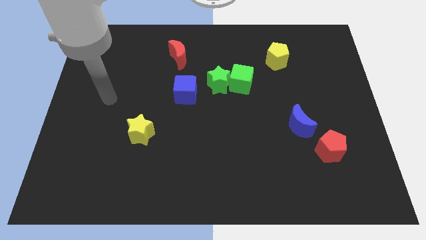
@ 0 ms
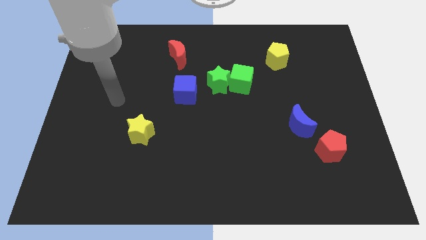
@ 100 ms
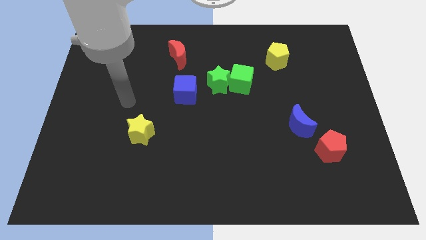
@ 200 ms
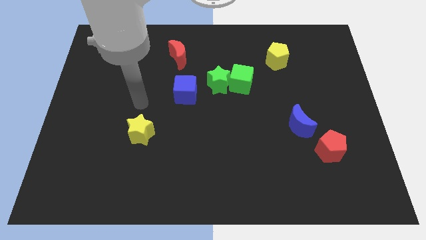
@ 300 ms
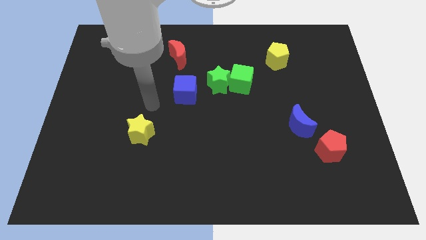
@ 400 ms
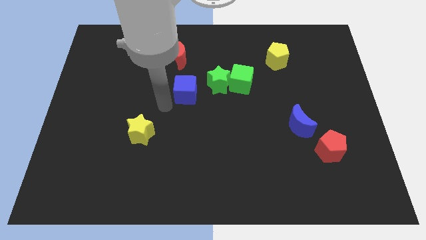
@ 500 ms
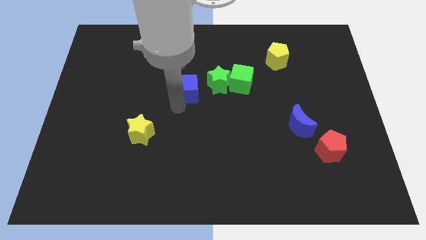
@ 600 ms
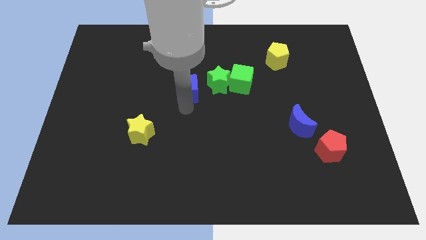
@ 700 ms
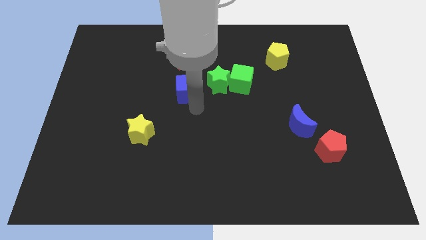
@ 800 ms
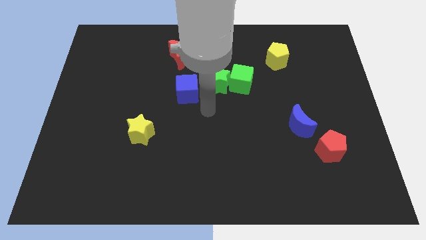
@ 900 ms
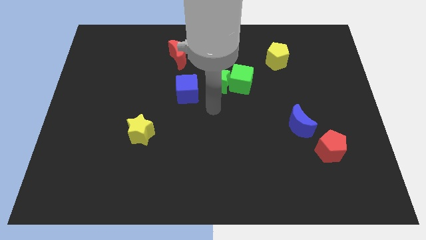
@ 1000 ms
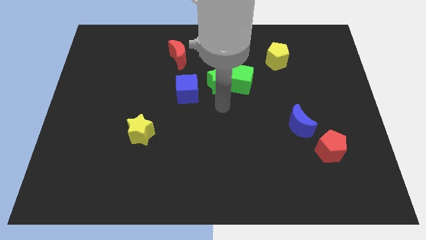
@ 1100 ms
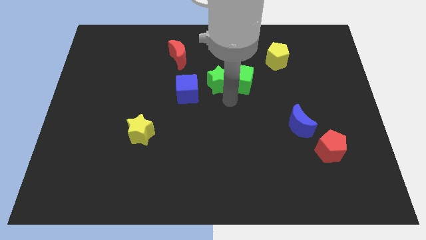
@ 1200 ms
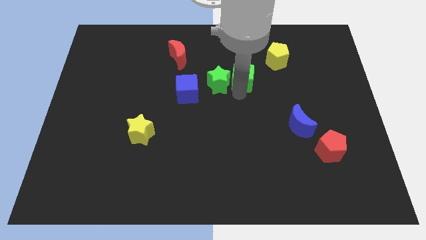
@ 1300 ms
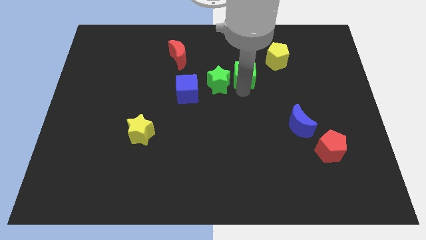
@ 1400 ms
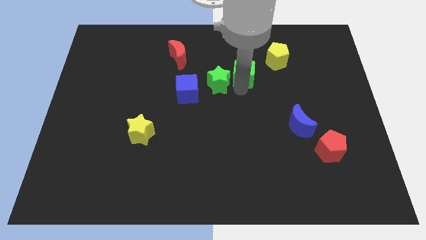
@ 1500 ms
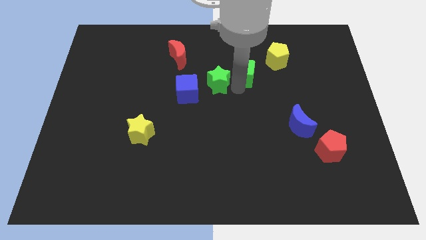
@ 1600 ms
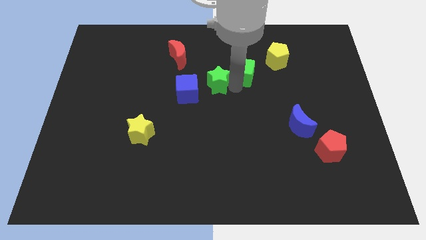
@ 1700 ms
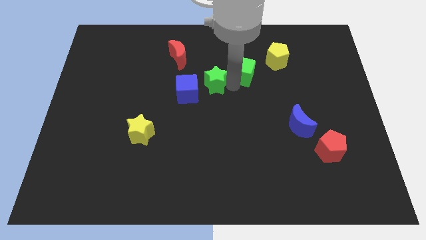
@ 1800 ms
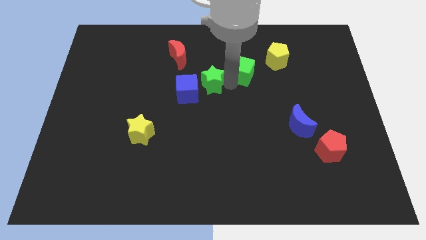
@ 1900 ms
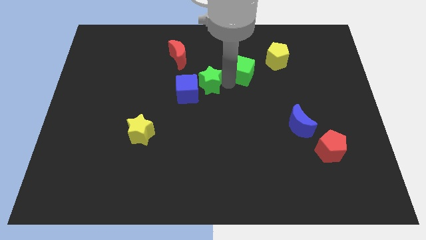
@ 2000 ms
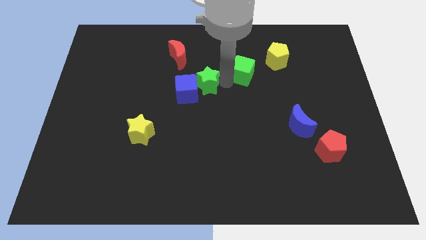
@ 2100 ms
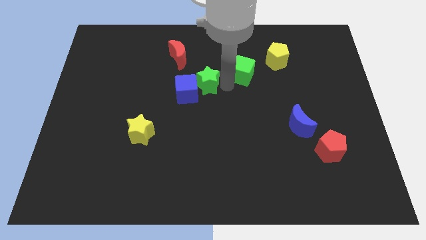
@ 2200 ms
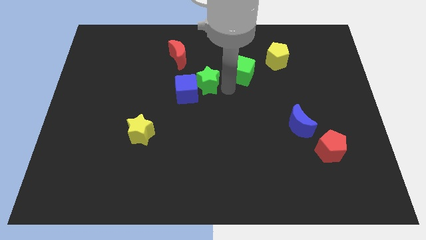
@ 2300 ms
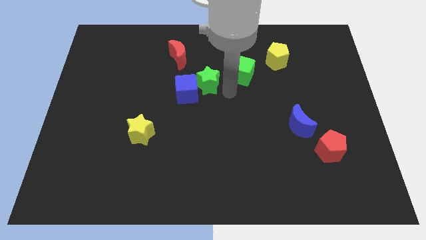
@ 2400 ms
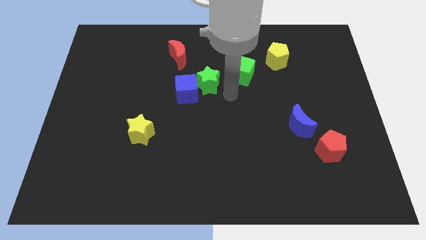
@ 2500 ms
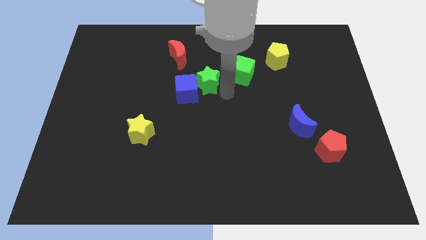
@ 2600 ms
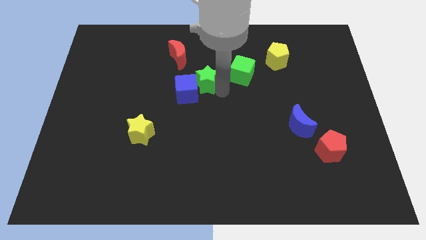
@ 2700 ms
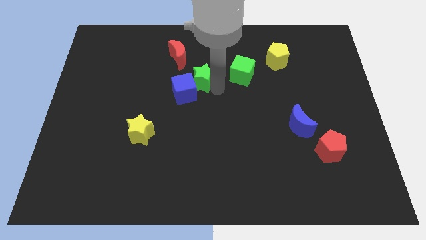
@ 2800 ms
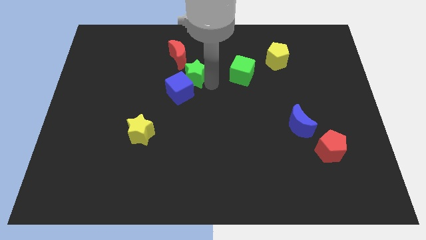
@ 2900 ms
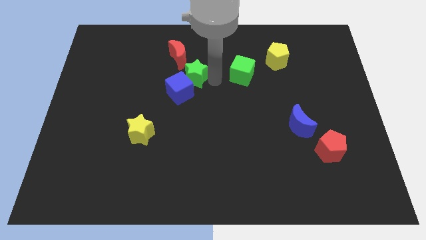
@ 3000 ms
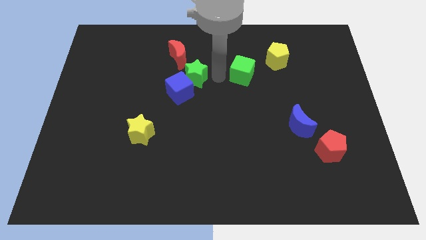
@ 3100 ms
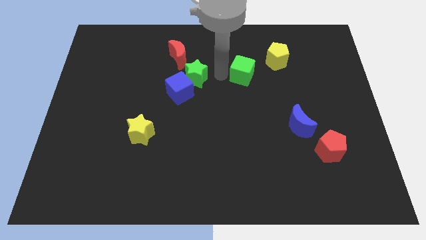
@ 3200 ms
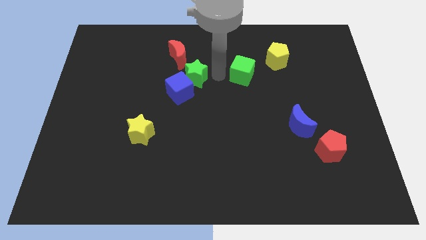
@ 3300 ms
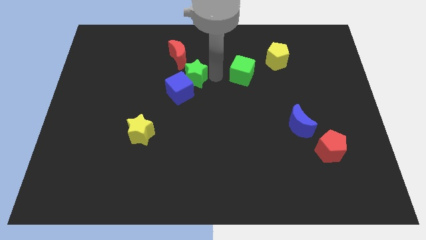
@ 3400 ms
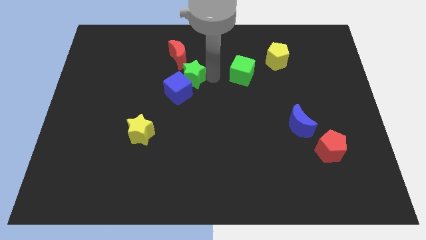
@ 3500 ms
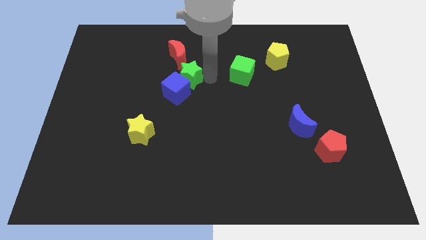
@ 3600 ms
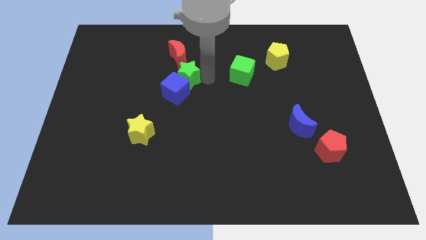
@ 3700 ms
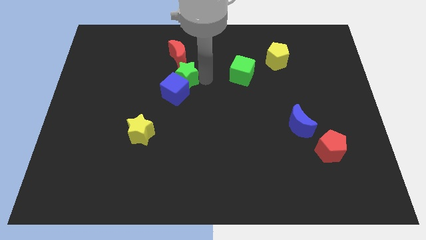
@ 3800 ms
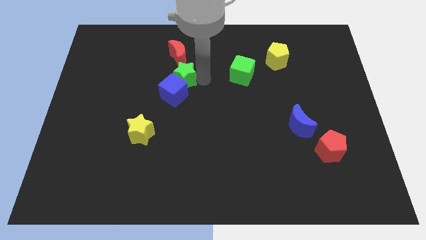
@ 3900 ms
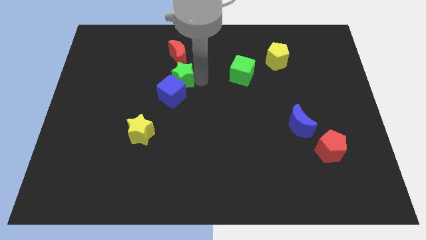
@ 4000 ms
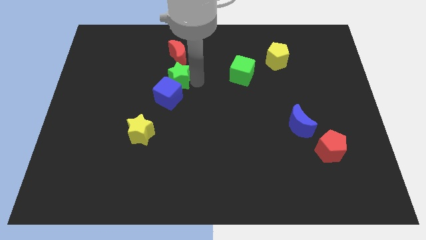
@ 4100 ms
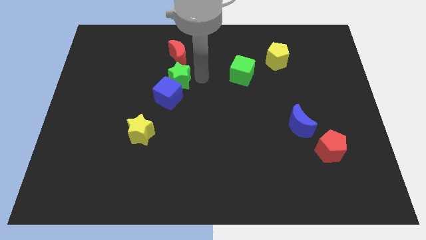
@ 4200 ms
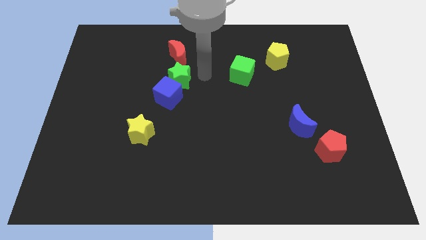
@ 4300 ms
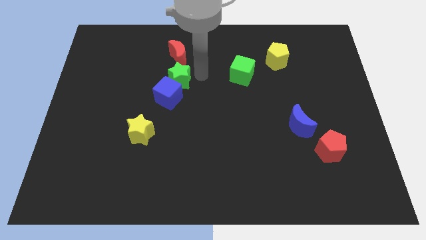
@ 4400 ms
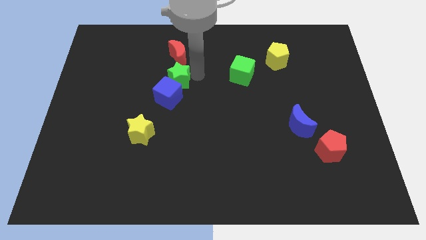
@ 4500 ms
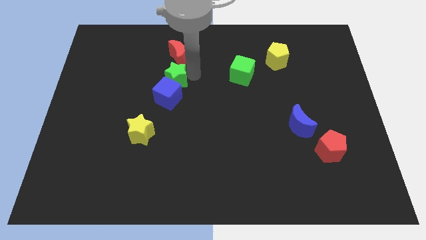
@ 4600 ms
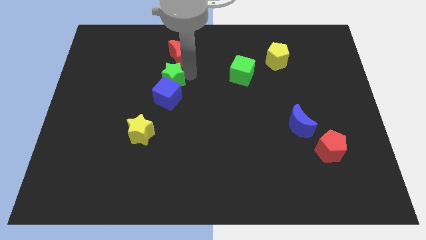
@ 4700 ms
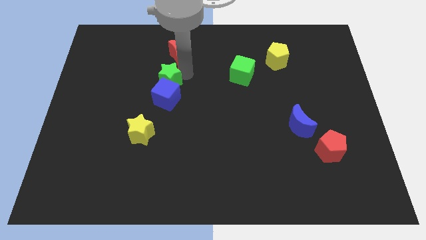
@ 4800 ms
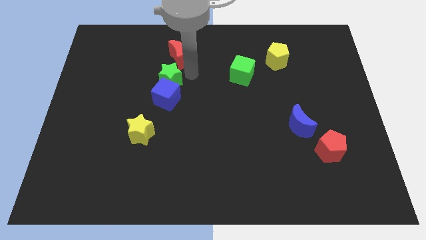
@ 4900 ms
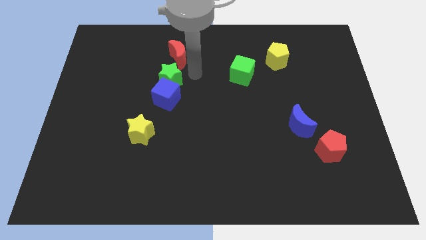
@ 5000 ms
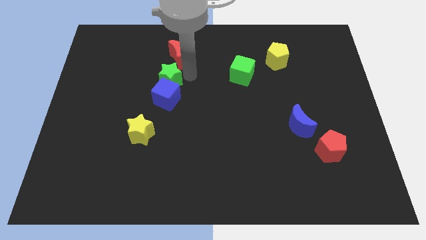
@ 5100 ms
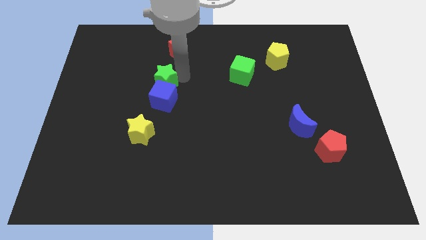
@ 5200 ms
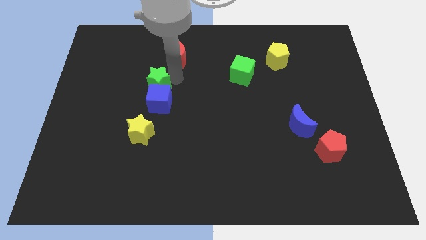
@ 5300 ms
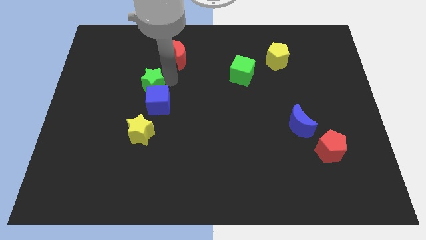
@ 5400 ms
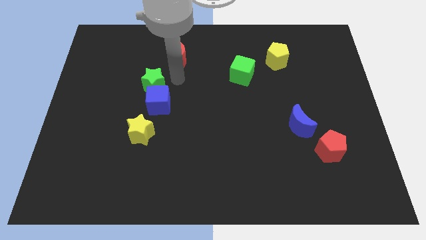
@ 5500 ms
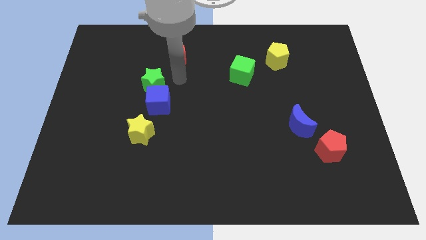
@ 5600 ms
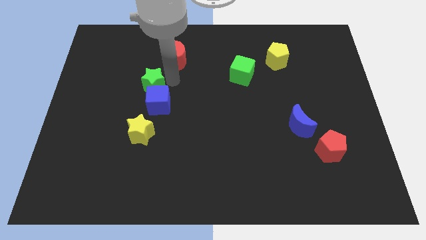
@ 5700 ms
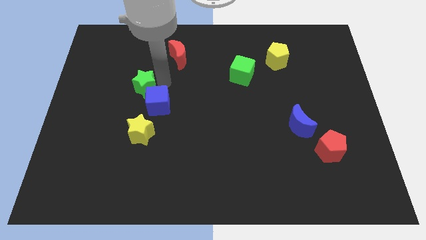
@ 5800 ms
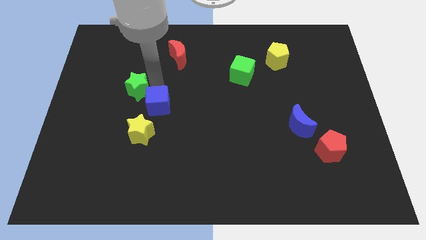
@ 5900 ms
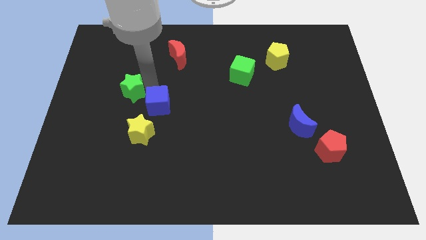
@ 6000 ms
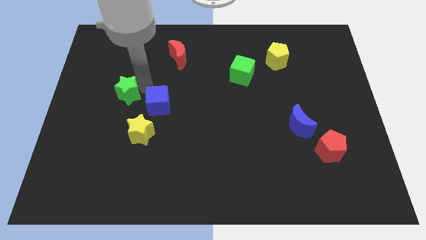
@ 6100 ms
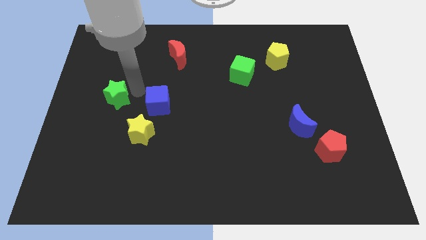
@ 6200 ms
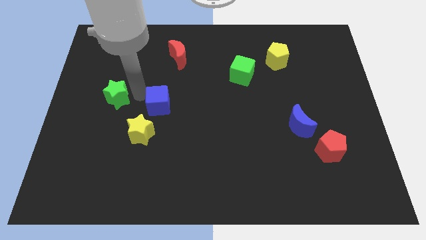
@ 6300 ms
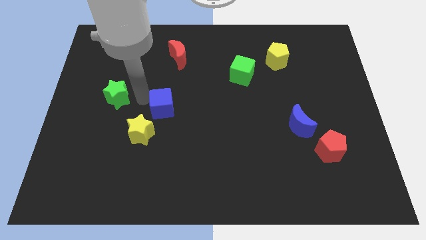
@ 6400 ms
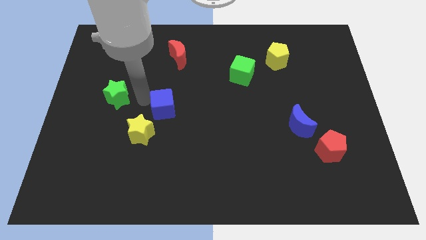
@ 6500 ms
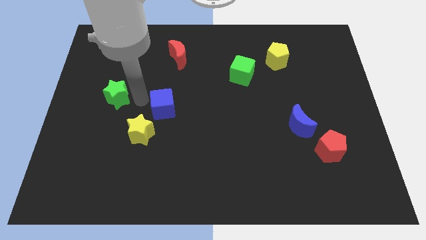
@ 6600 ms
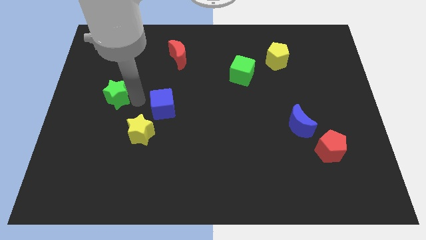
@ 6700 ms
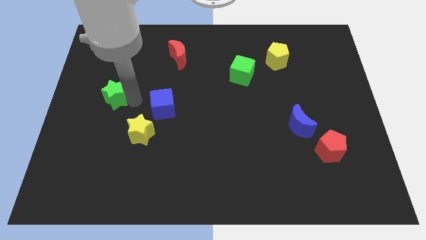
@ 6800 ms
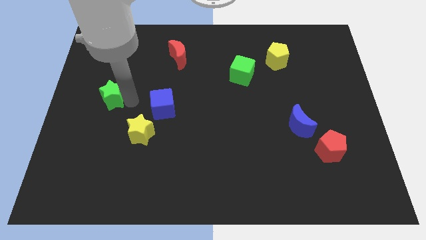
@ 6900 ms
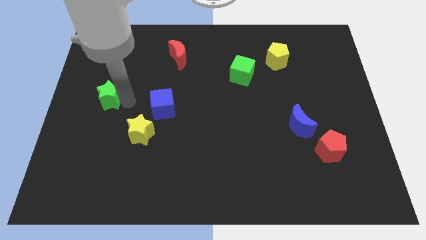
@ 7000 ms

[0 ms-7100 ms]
slide the green star to the left side of the board

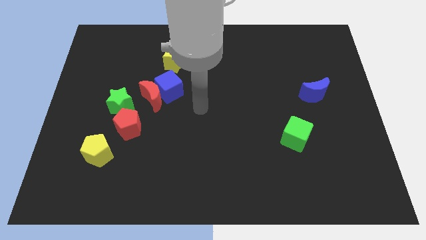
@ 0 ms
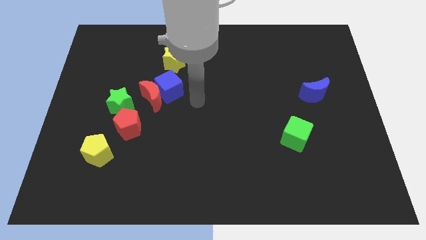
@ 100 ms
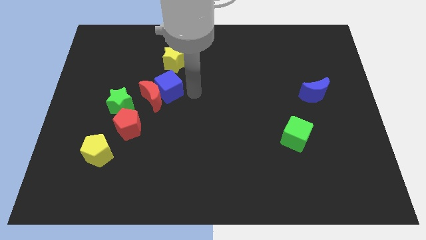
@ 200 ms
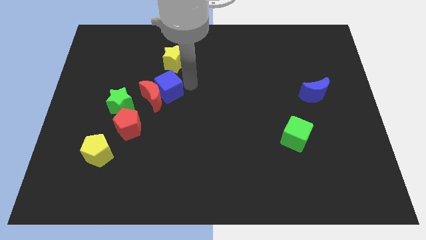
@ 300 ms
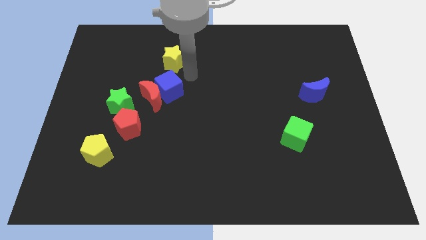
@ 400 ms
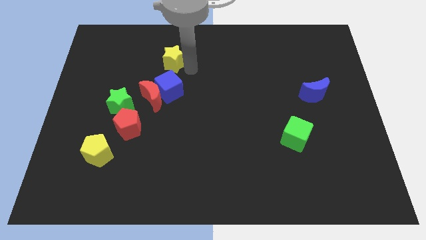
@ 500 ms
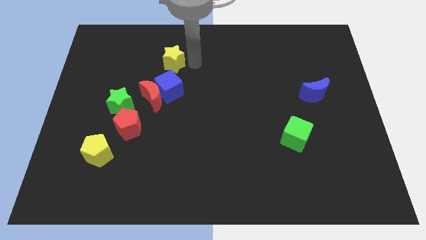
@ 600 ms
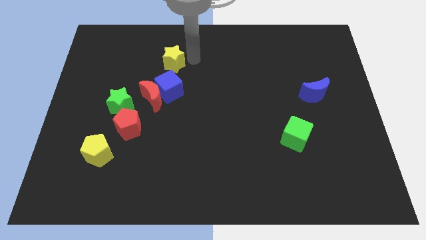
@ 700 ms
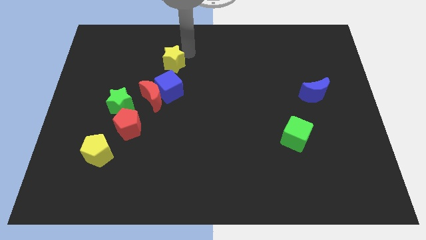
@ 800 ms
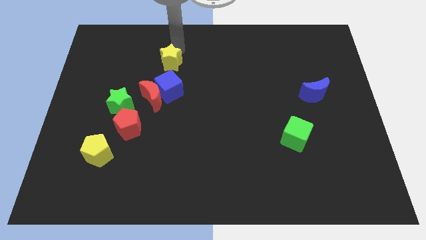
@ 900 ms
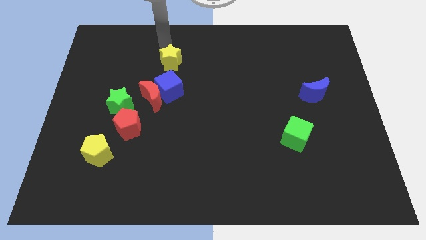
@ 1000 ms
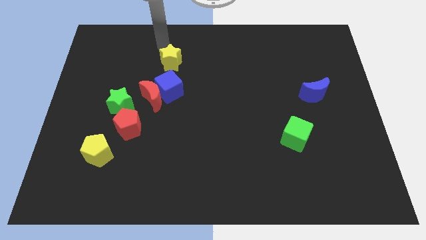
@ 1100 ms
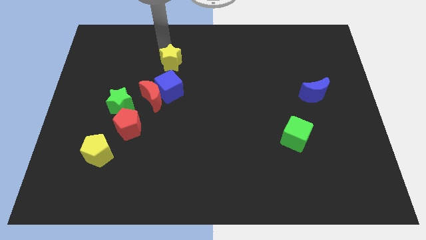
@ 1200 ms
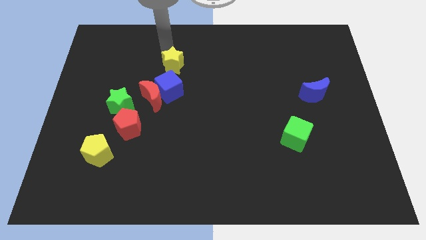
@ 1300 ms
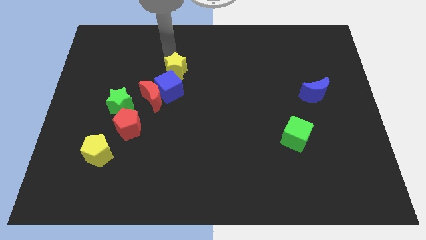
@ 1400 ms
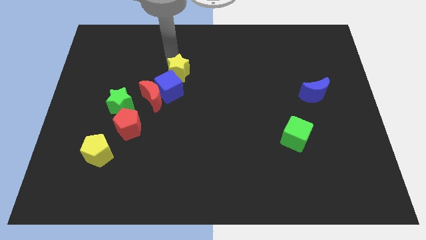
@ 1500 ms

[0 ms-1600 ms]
slide the yellow star to the center of the board
